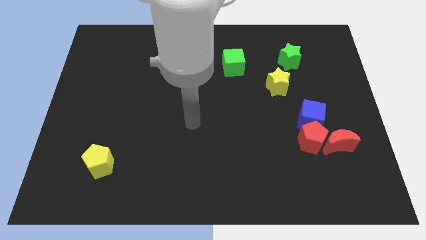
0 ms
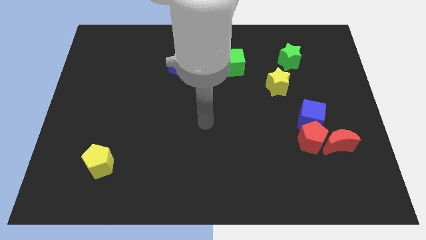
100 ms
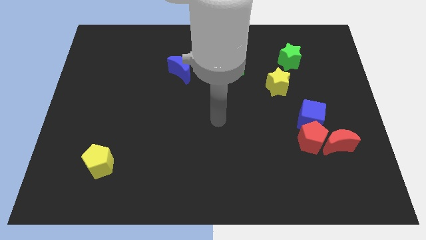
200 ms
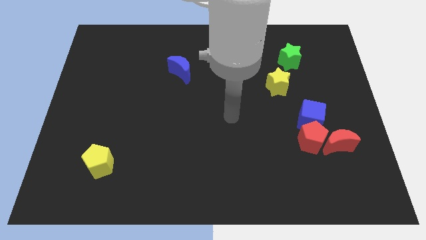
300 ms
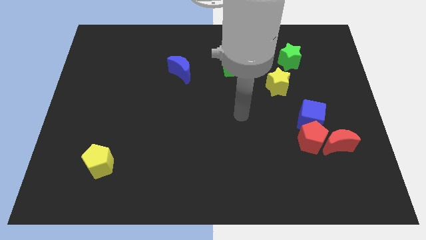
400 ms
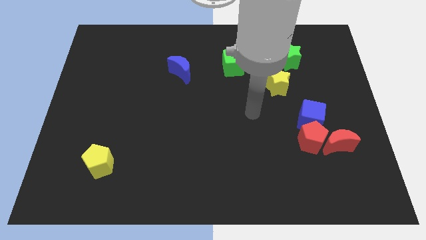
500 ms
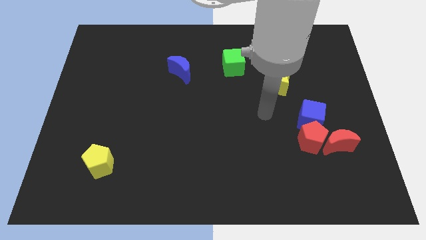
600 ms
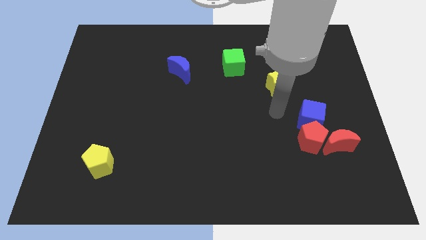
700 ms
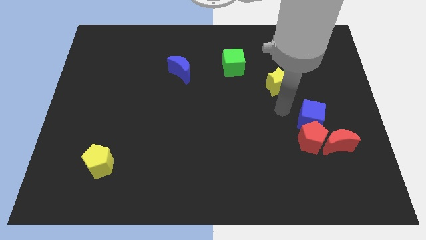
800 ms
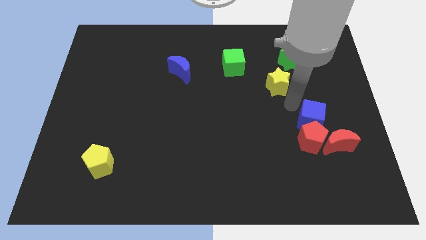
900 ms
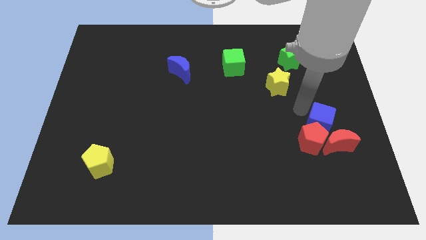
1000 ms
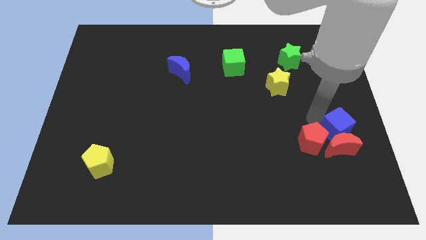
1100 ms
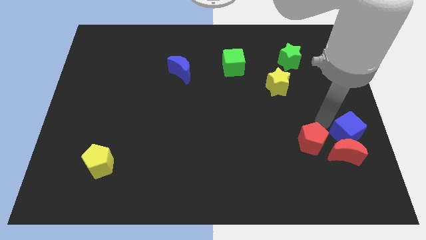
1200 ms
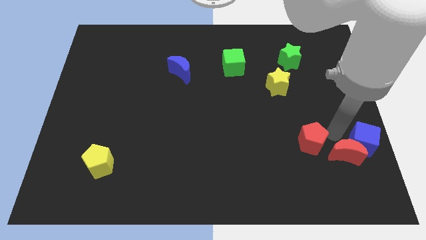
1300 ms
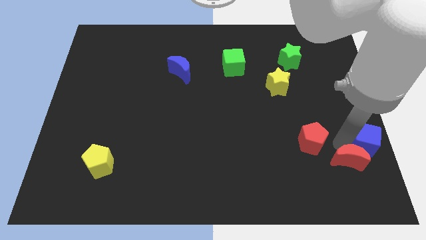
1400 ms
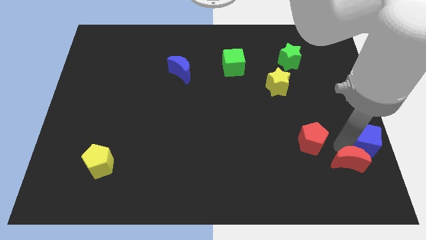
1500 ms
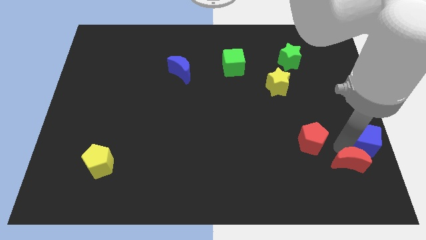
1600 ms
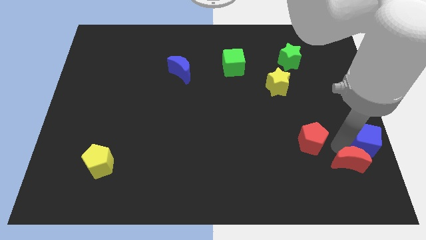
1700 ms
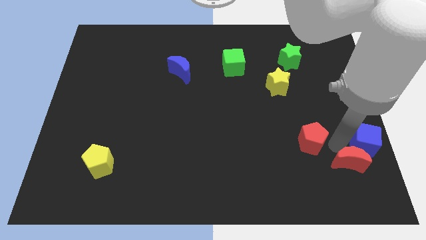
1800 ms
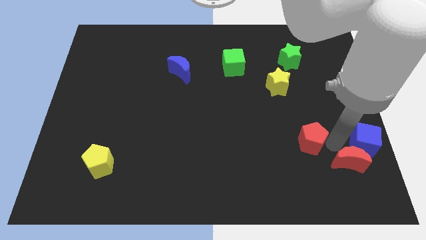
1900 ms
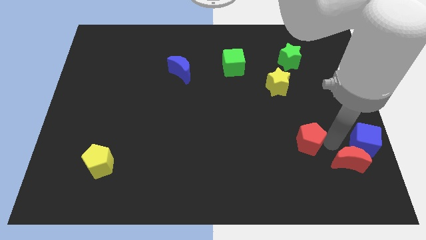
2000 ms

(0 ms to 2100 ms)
separate the red pentagon from the red moon and blue cube

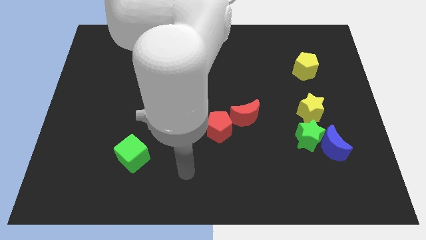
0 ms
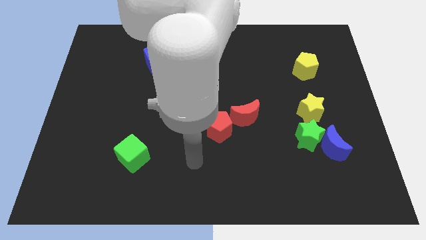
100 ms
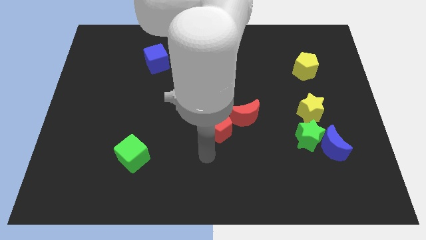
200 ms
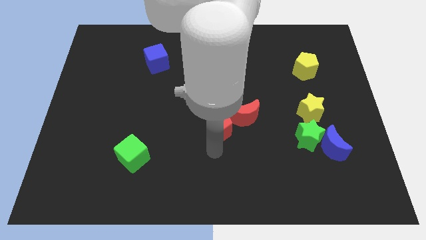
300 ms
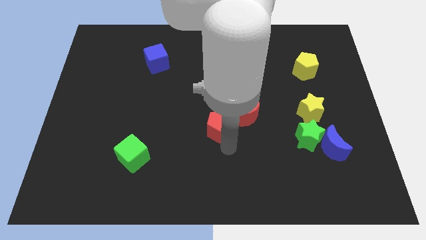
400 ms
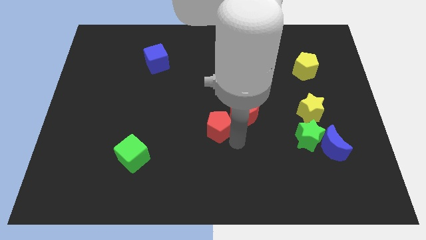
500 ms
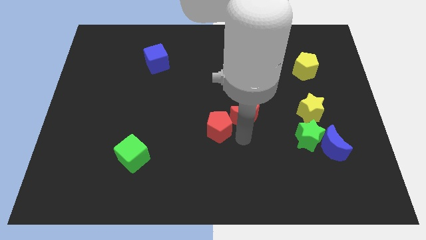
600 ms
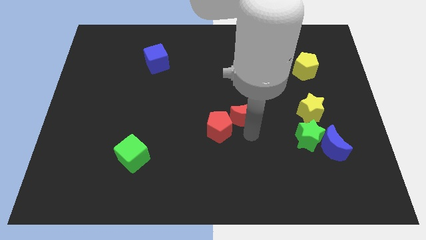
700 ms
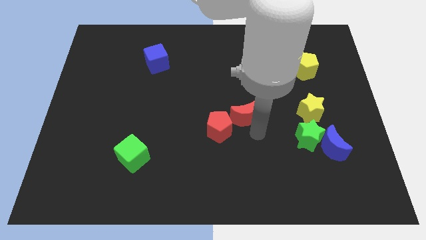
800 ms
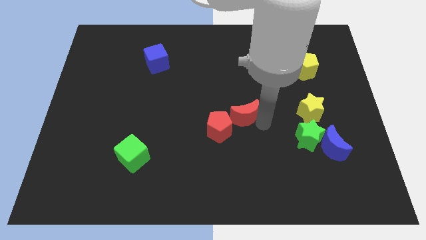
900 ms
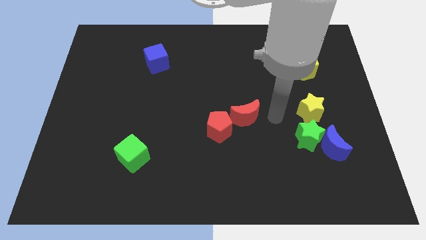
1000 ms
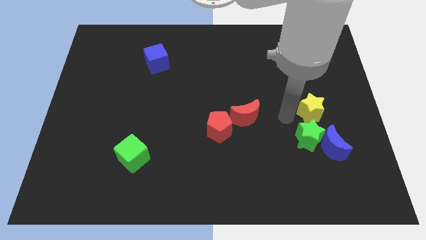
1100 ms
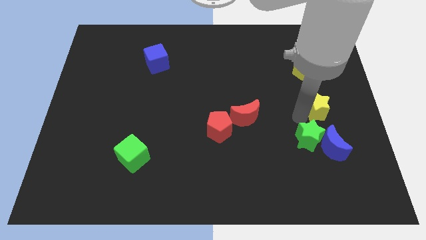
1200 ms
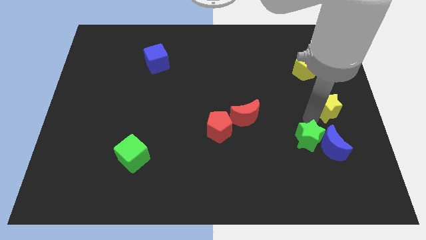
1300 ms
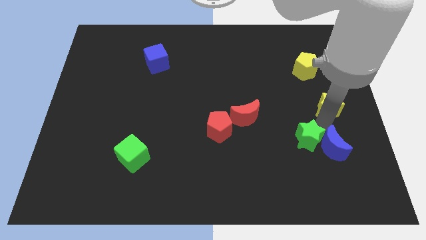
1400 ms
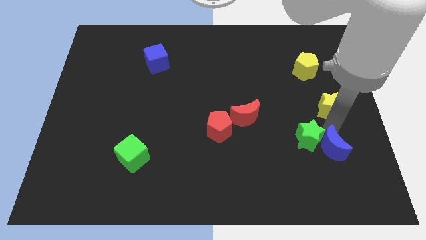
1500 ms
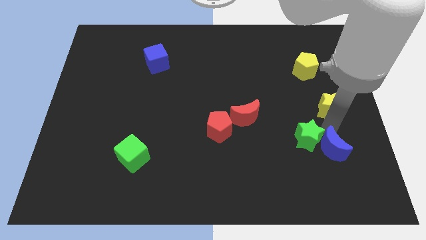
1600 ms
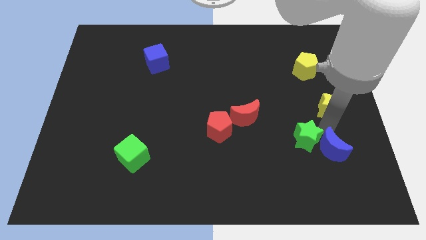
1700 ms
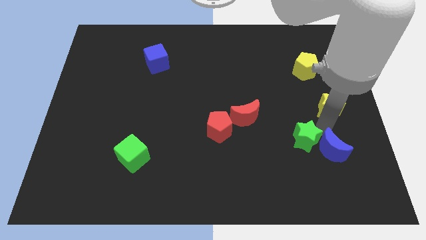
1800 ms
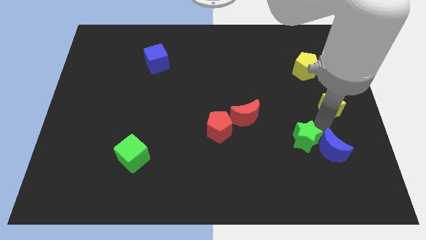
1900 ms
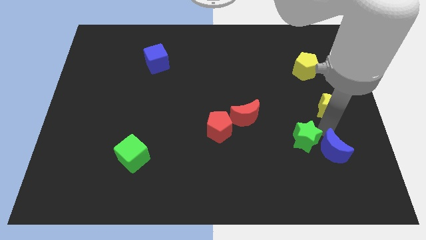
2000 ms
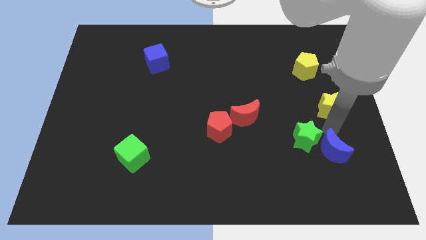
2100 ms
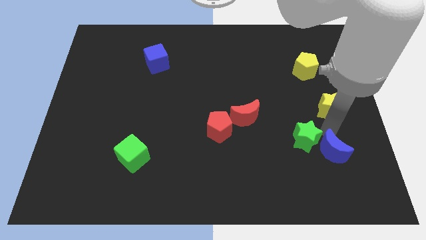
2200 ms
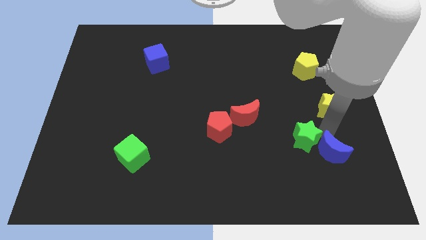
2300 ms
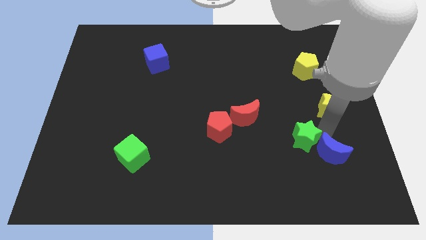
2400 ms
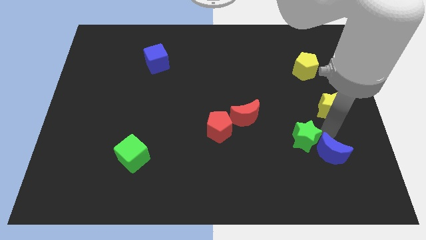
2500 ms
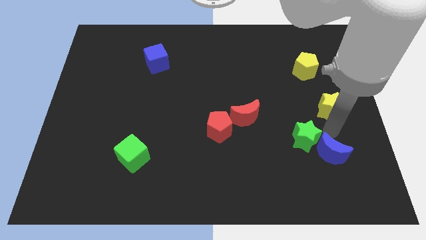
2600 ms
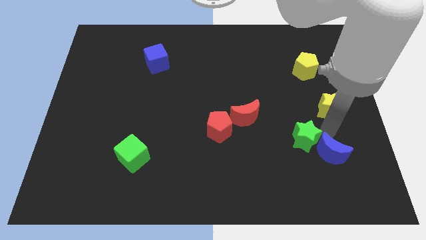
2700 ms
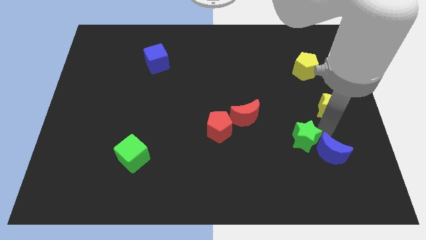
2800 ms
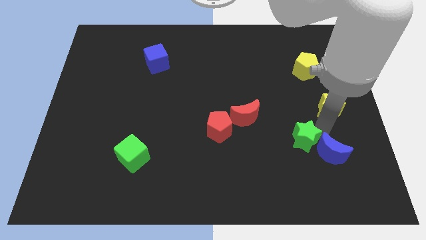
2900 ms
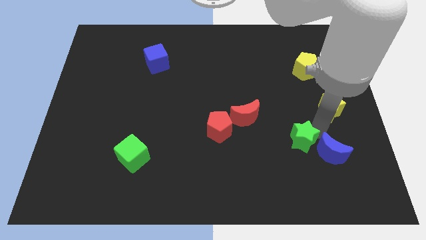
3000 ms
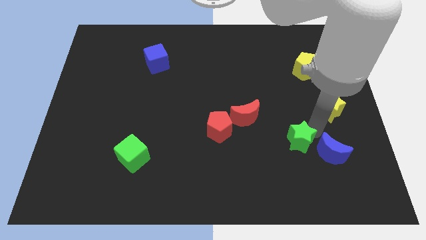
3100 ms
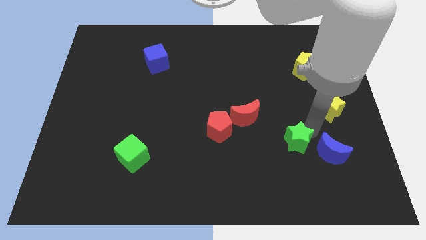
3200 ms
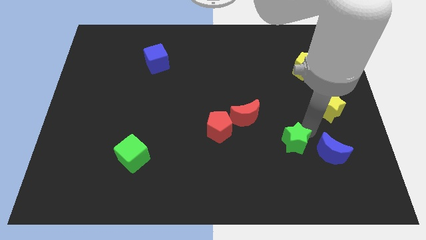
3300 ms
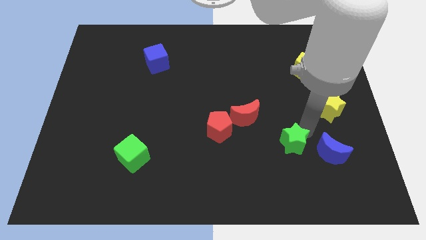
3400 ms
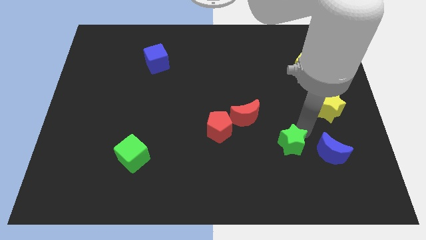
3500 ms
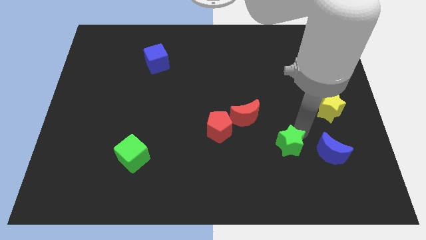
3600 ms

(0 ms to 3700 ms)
move the green star away from the blue moon and yellow star

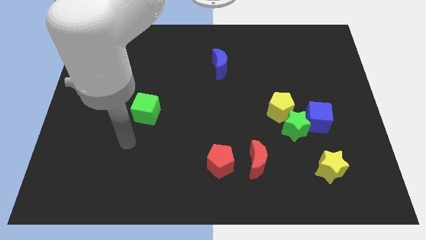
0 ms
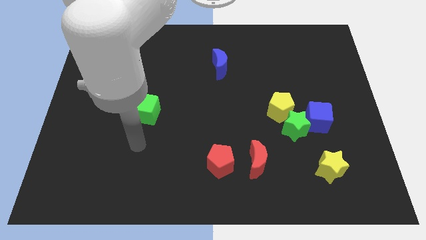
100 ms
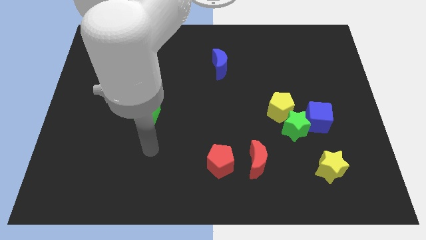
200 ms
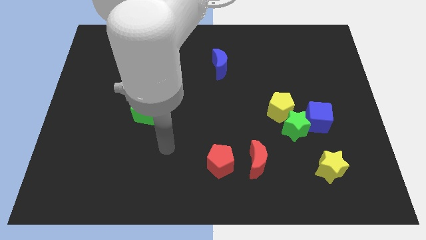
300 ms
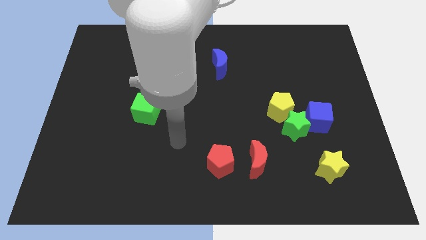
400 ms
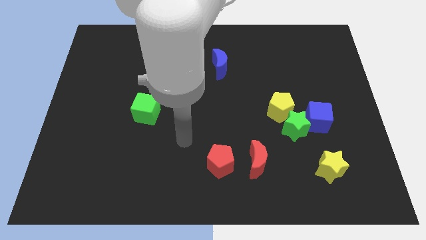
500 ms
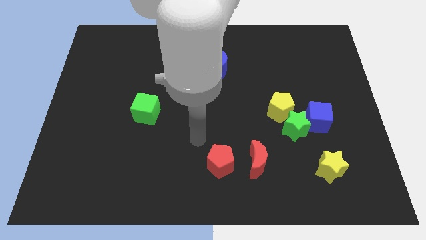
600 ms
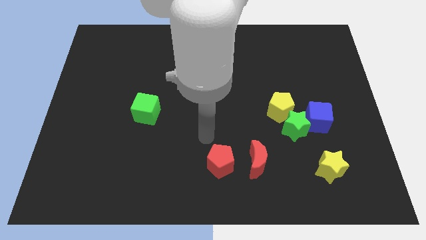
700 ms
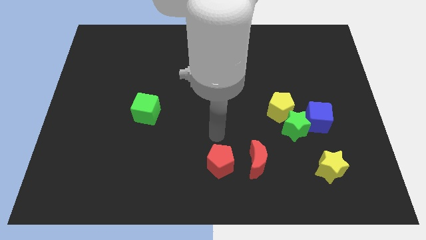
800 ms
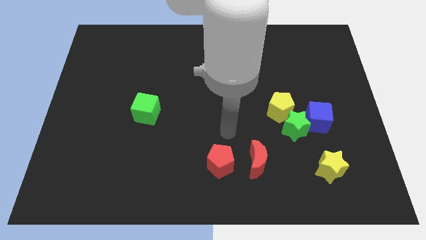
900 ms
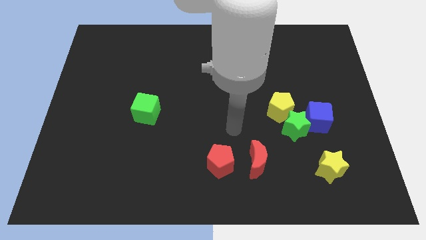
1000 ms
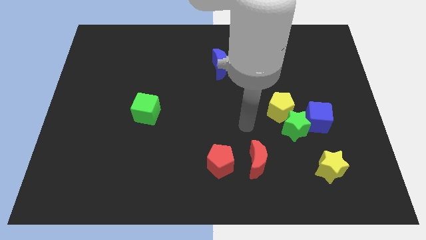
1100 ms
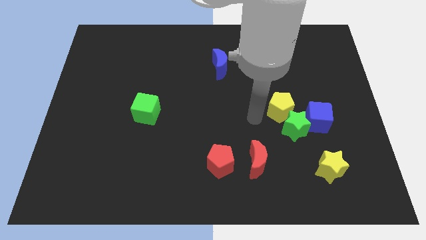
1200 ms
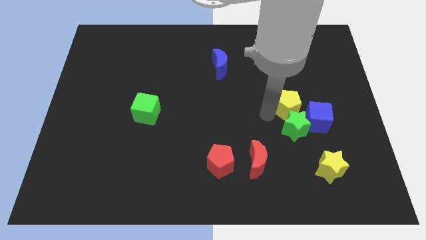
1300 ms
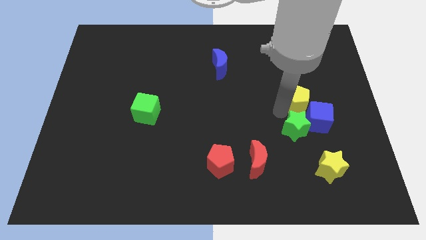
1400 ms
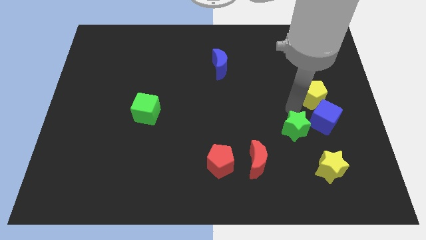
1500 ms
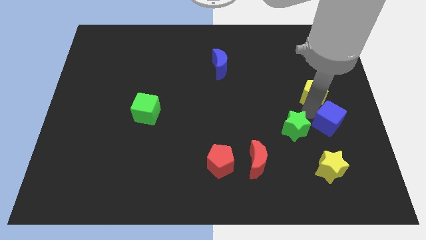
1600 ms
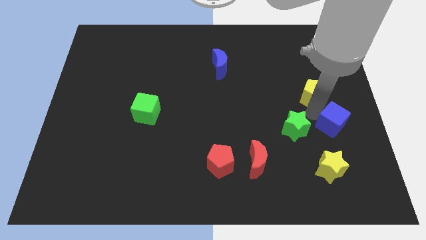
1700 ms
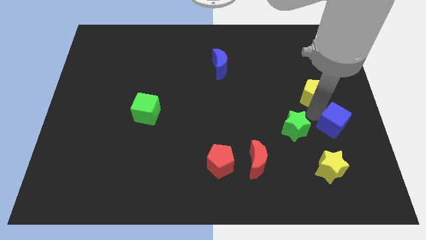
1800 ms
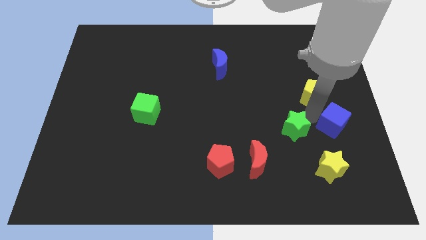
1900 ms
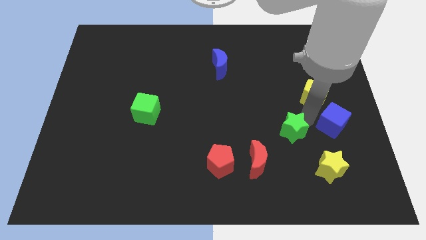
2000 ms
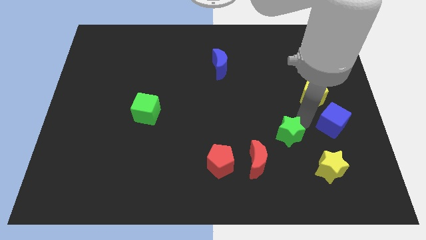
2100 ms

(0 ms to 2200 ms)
separate the green star from the yellow pentagon and blue cube

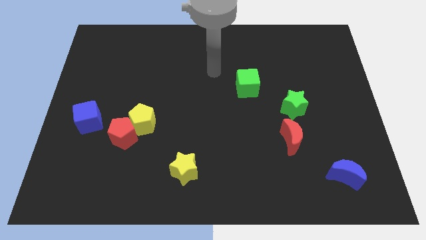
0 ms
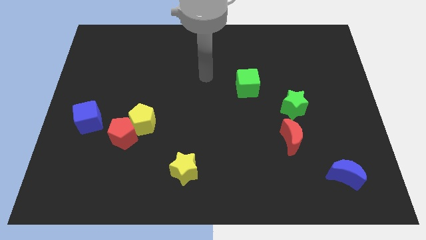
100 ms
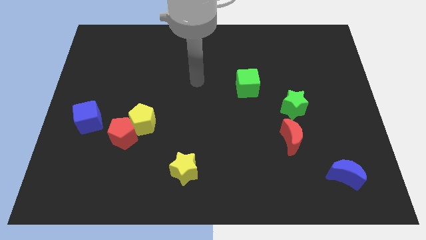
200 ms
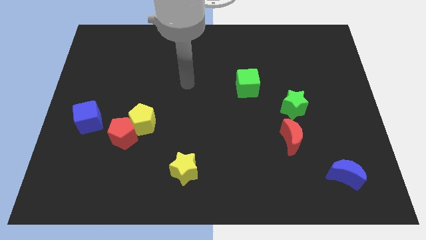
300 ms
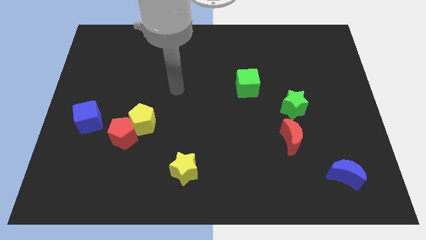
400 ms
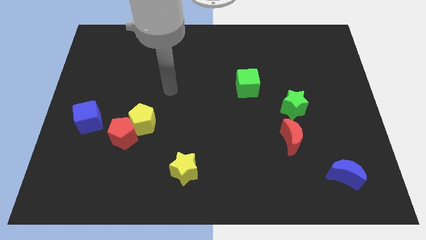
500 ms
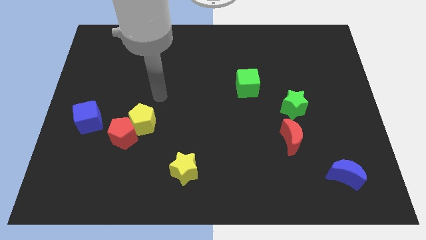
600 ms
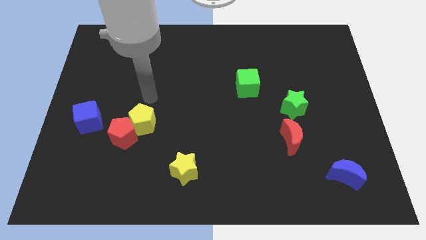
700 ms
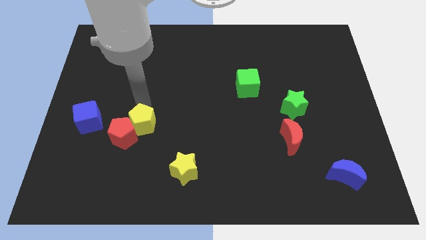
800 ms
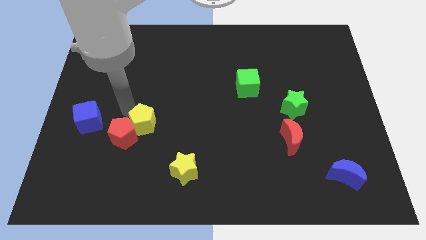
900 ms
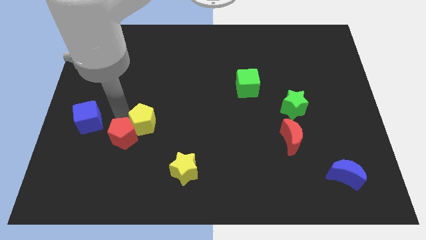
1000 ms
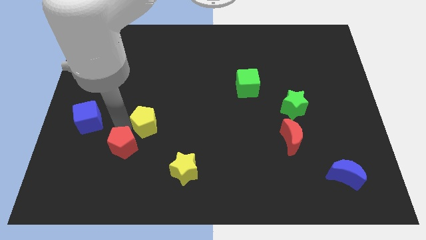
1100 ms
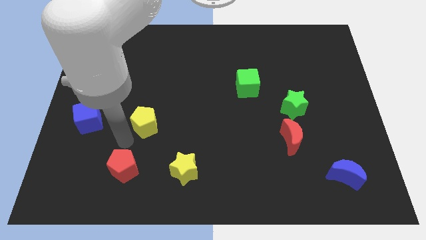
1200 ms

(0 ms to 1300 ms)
move the yellow pentagon away from the red pentagon
